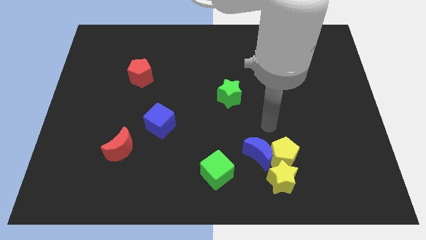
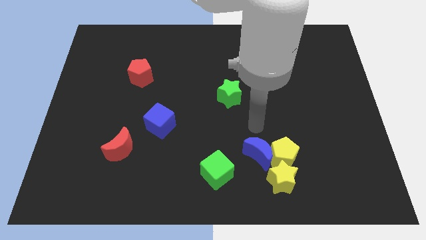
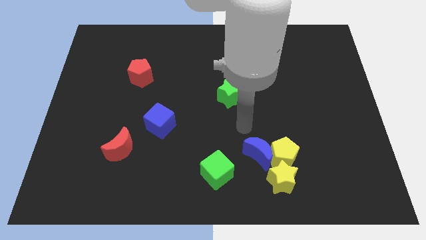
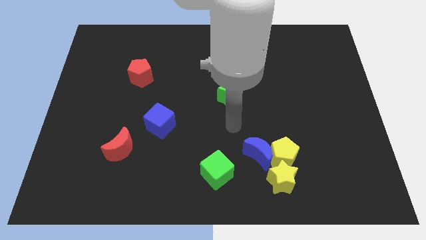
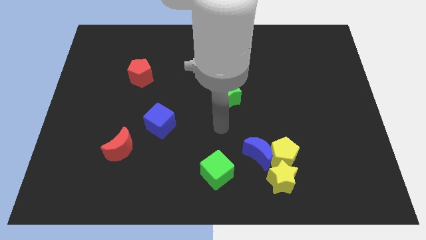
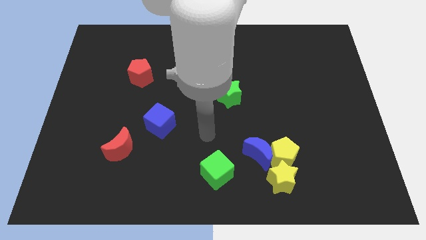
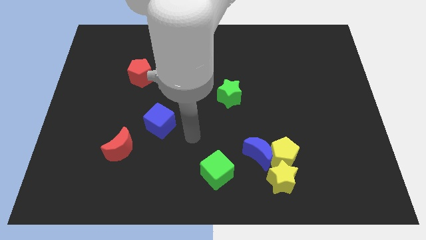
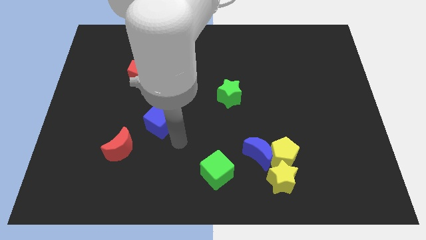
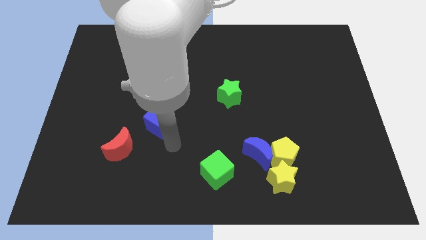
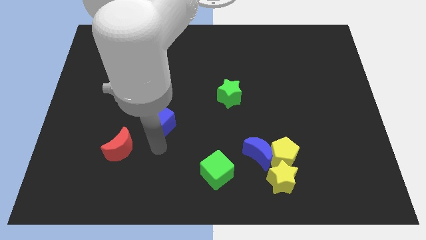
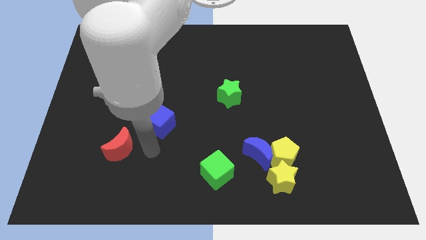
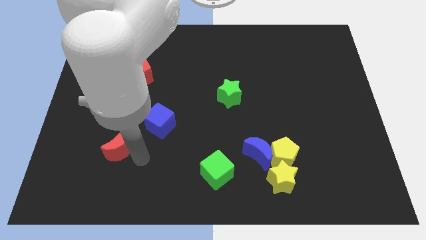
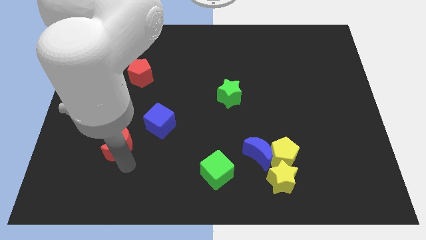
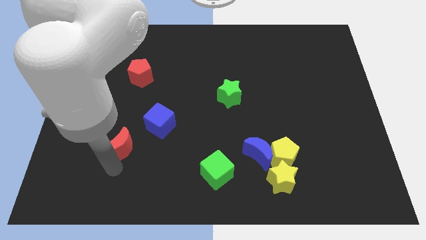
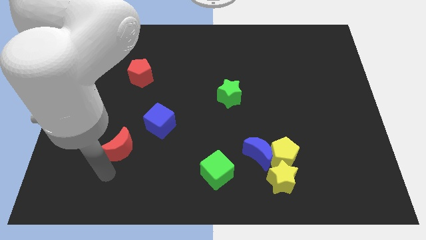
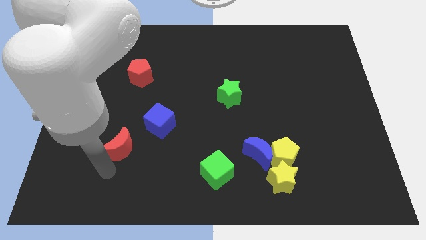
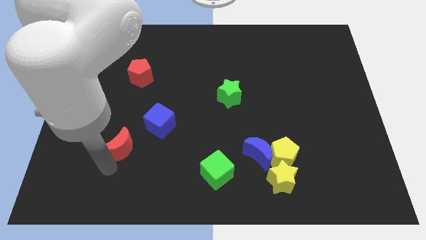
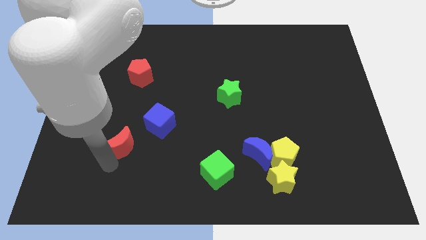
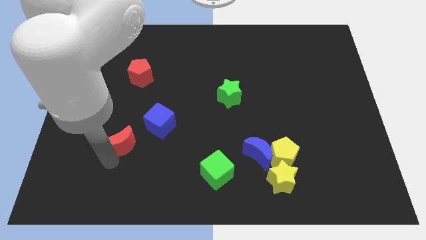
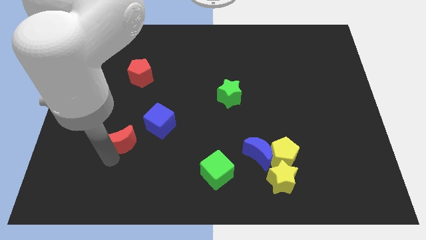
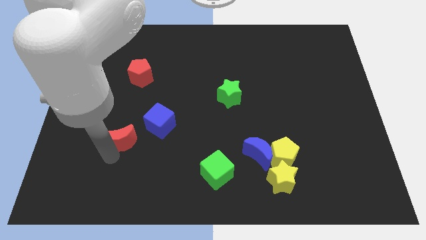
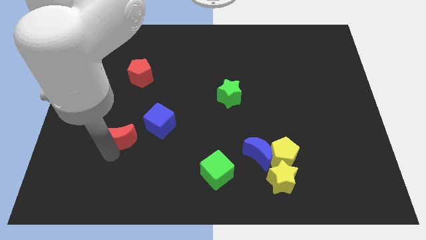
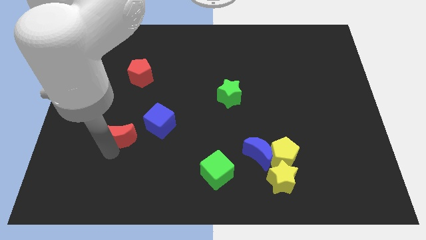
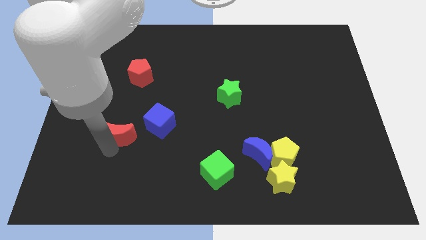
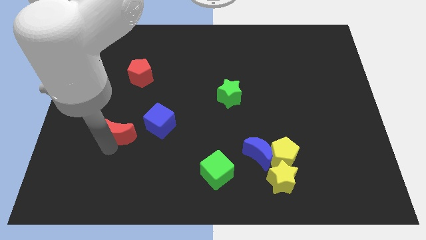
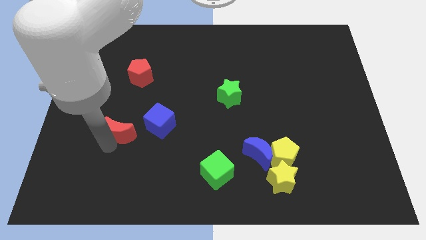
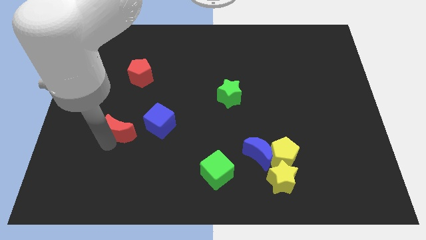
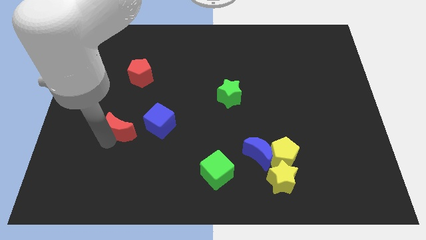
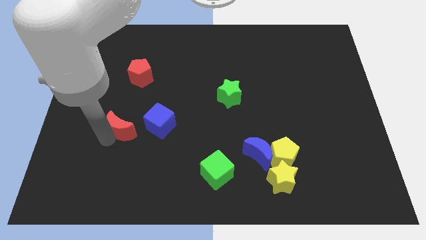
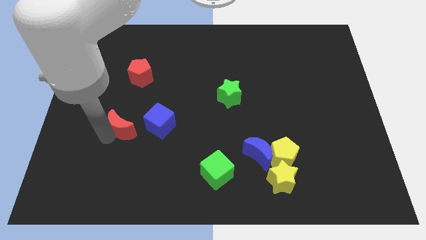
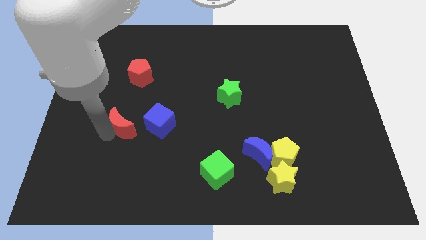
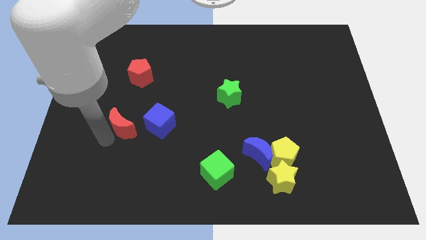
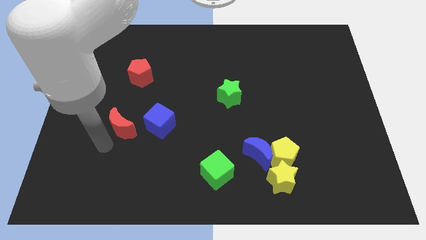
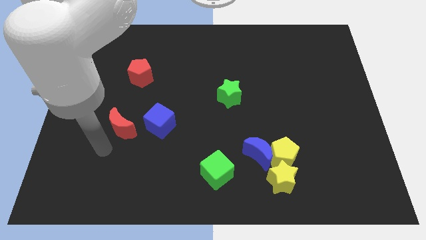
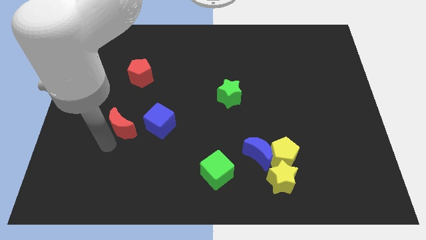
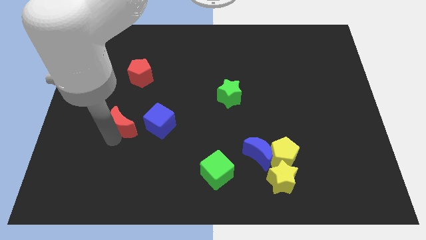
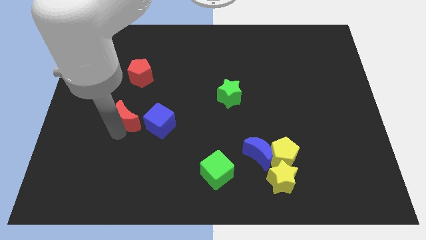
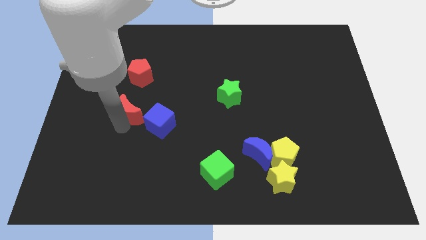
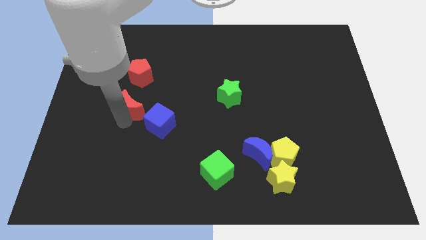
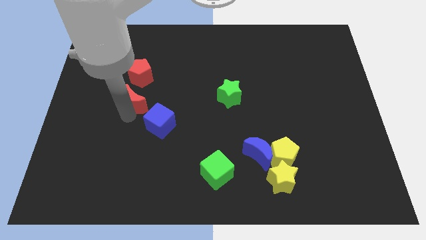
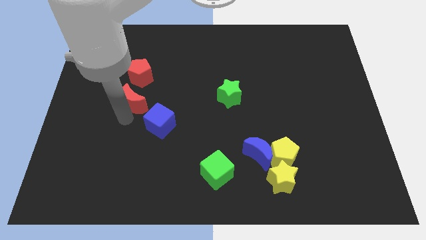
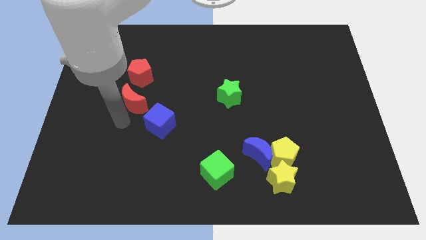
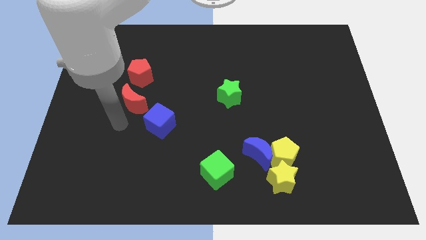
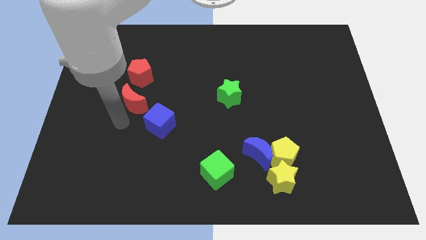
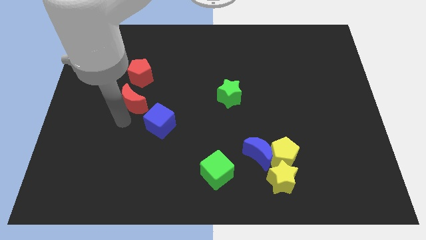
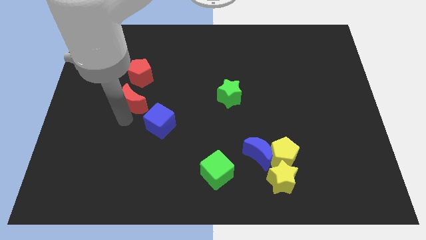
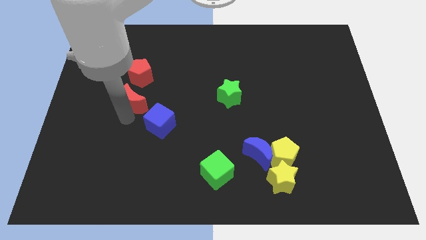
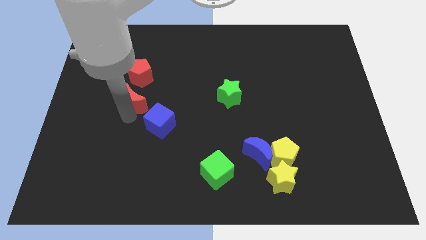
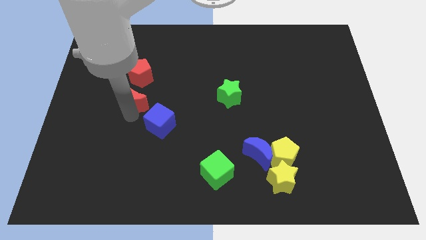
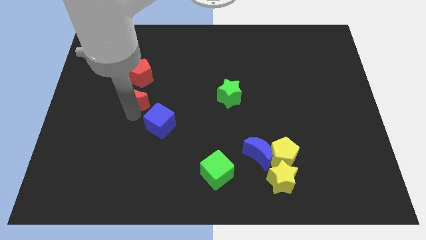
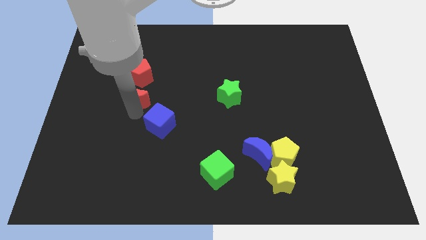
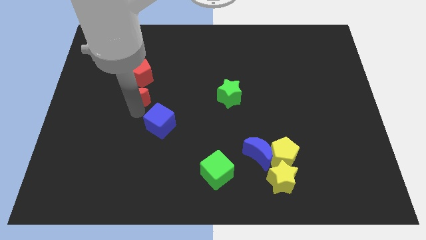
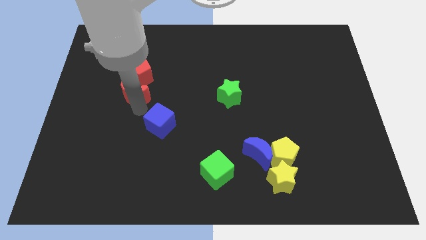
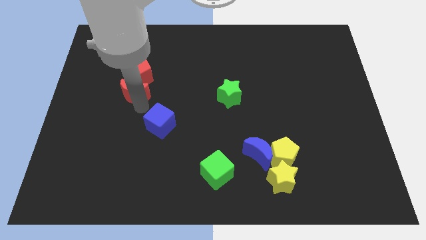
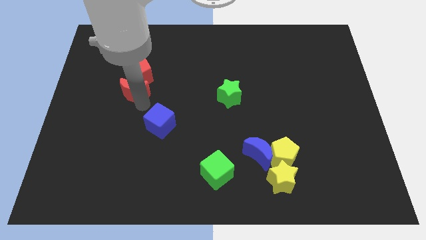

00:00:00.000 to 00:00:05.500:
put the red moon next to the red pentagon

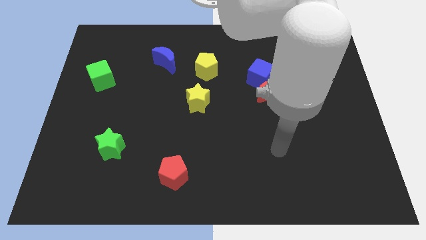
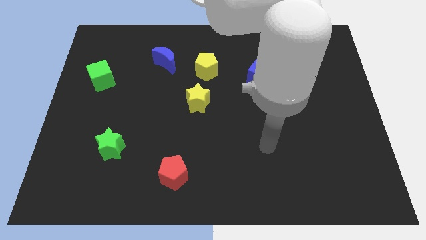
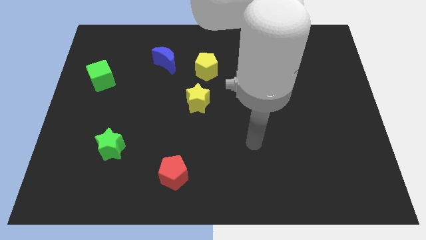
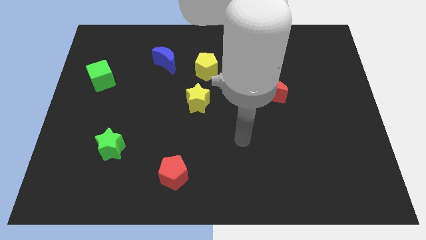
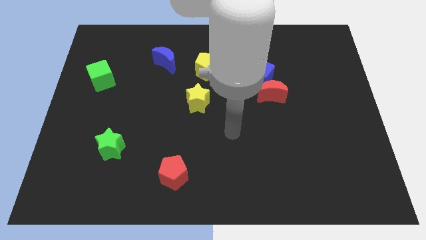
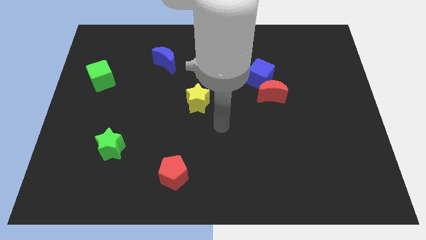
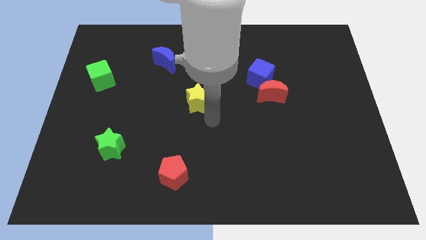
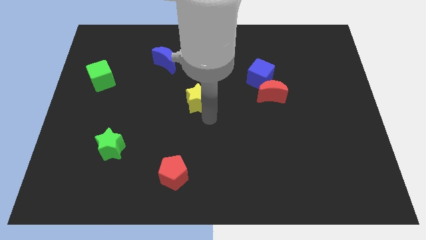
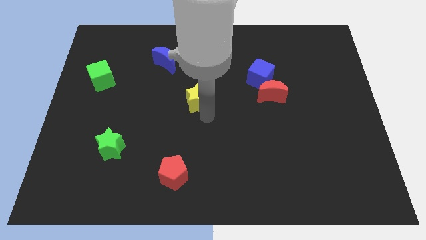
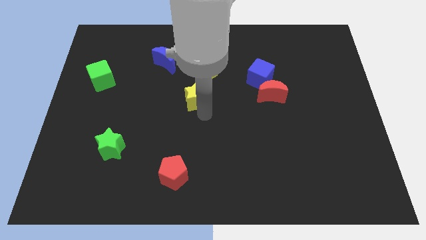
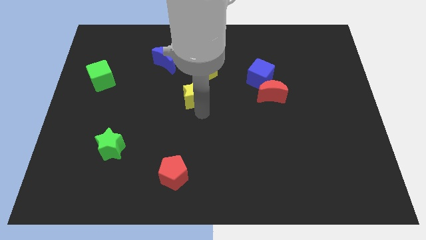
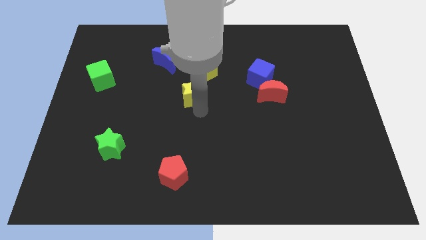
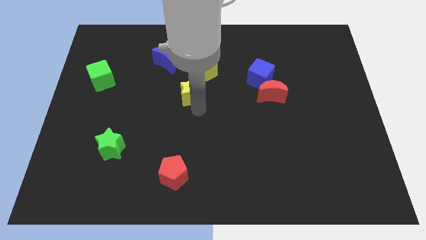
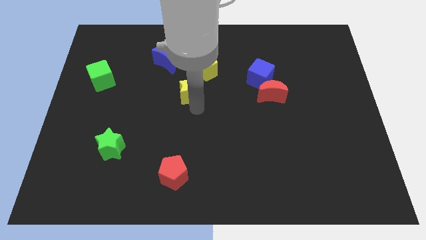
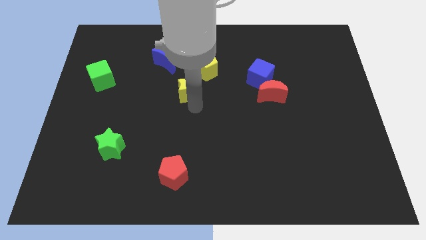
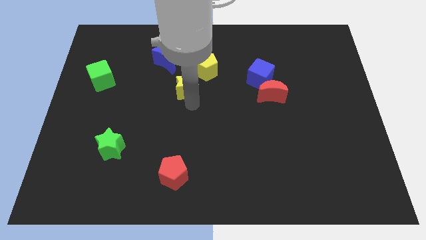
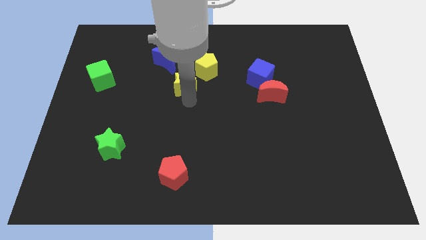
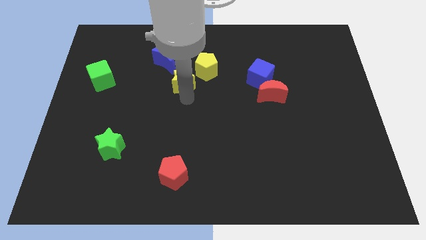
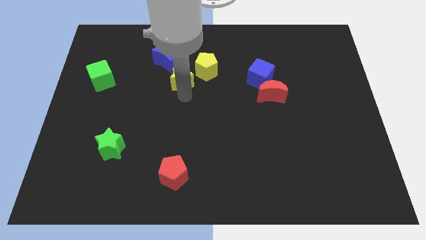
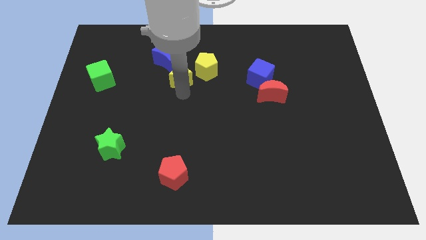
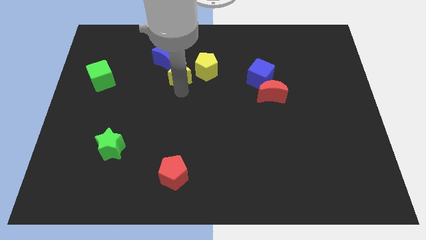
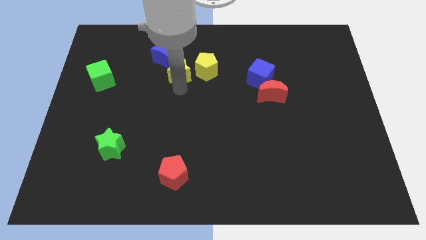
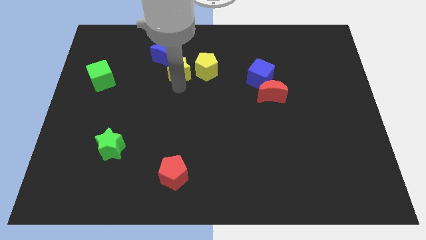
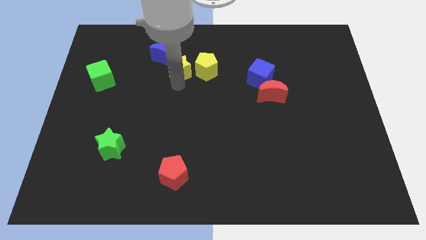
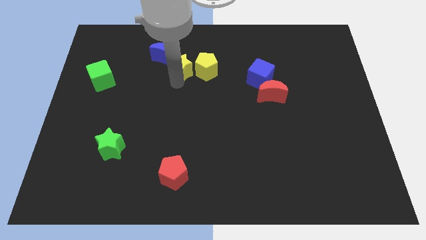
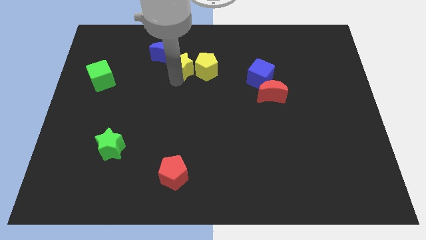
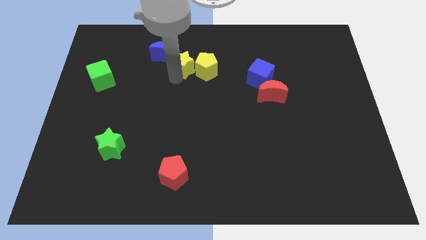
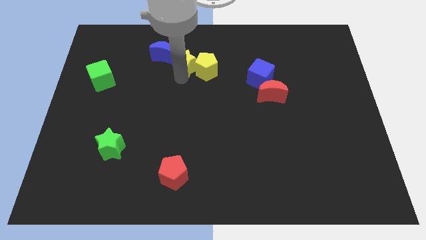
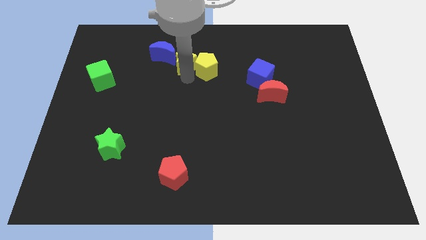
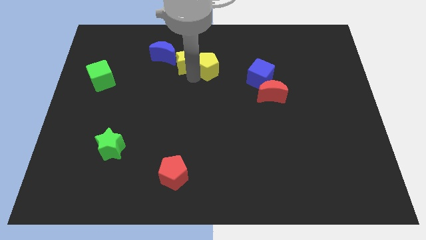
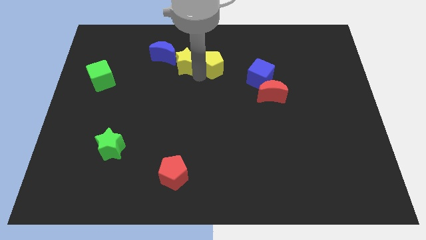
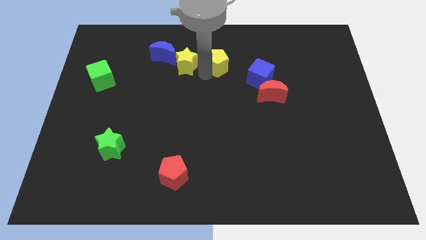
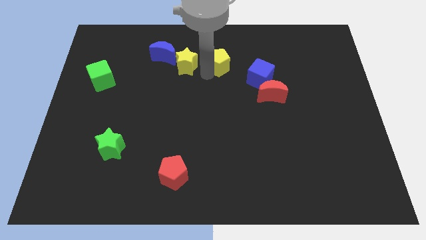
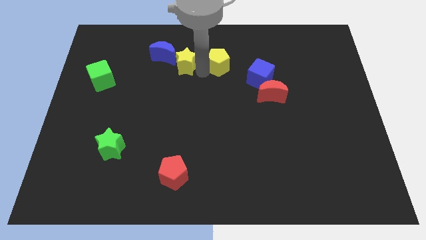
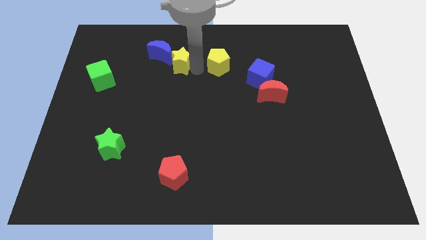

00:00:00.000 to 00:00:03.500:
slide the yellow star close to the blue moon
